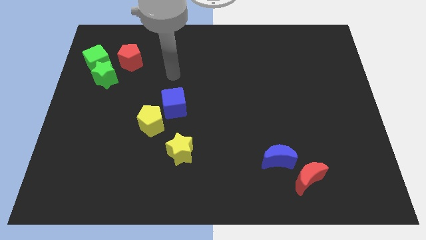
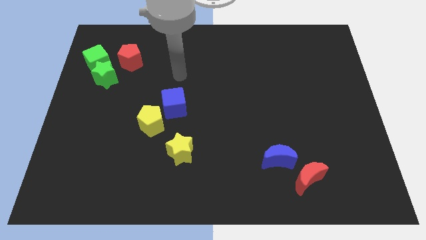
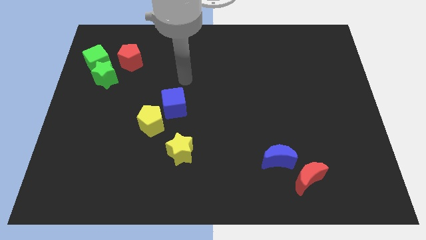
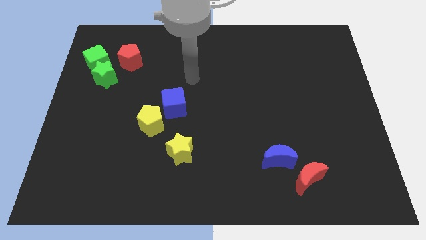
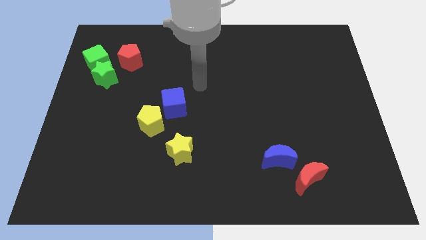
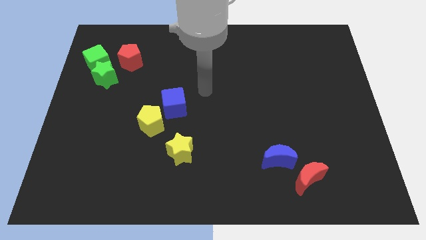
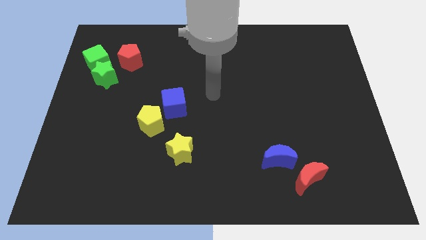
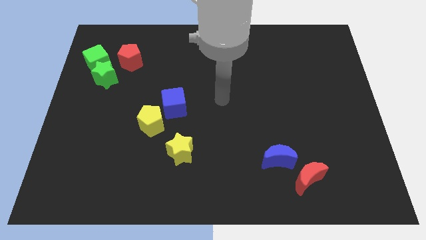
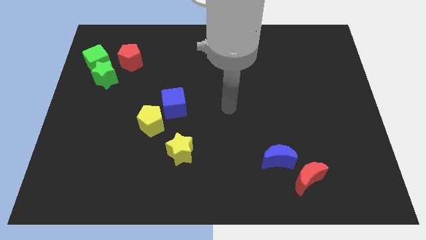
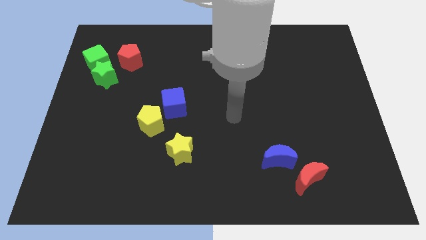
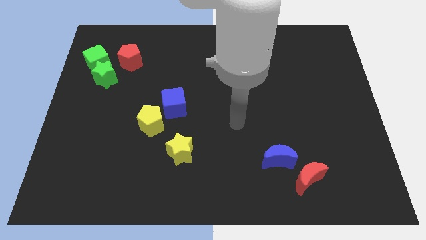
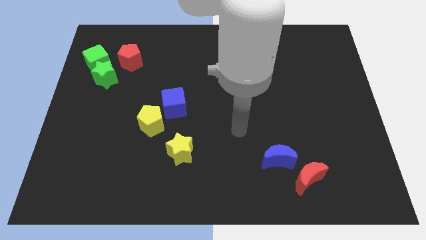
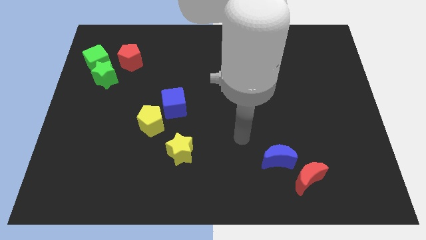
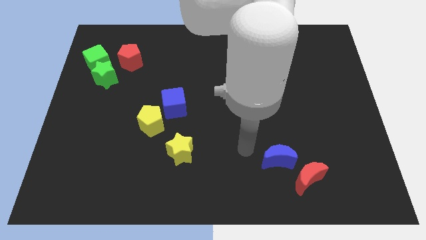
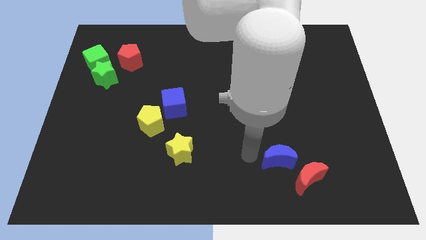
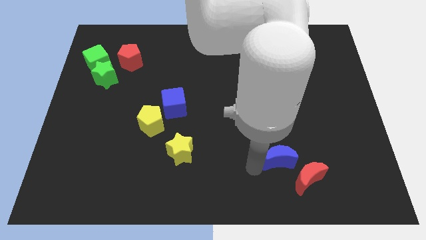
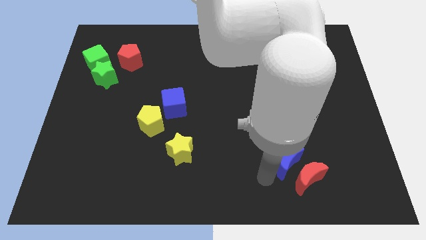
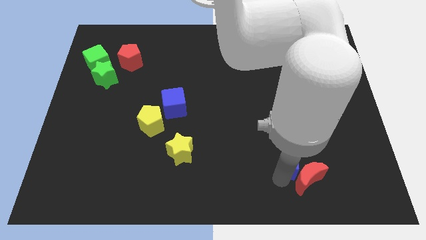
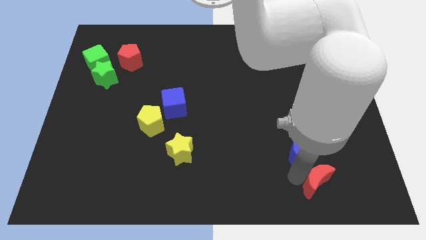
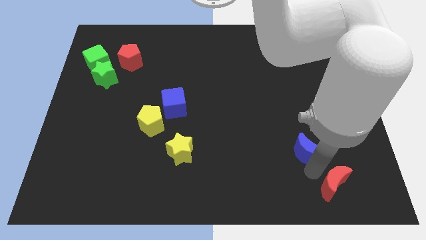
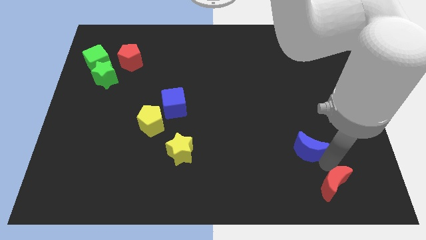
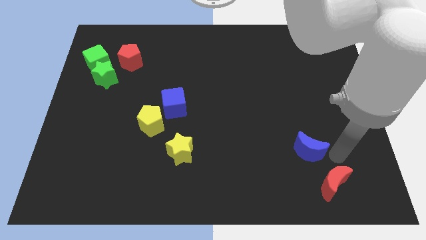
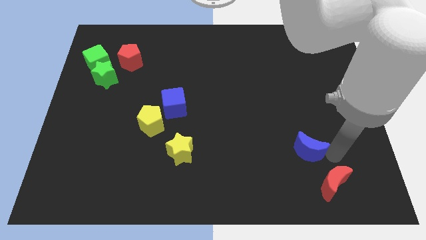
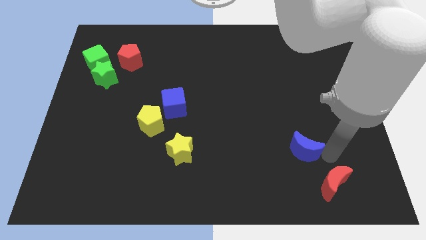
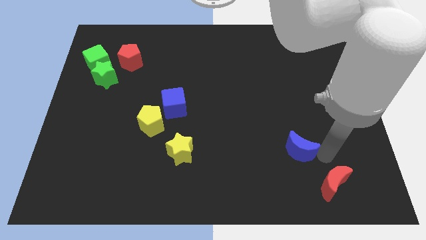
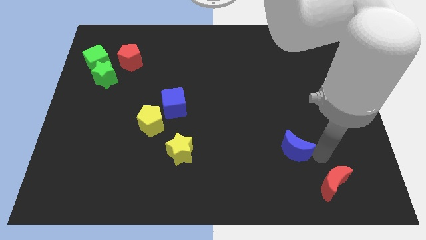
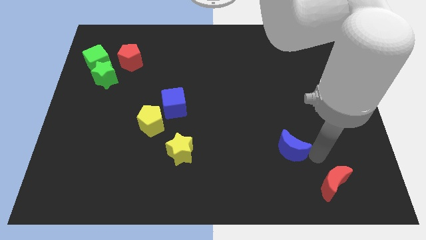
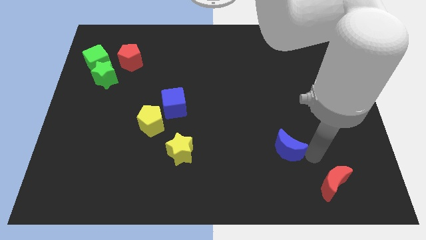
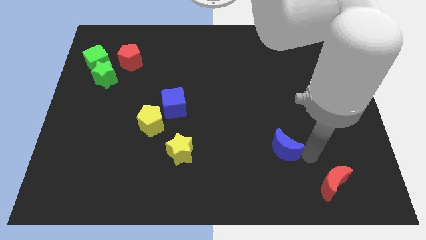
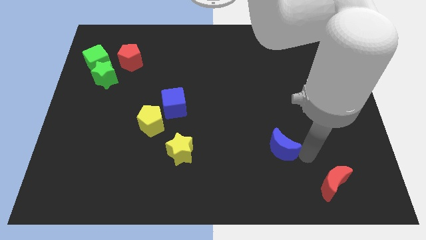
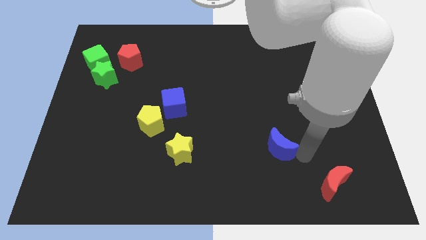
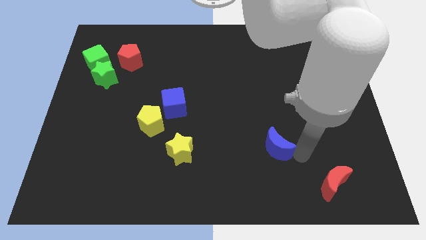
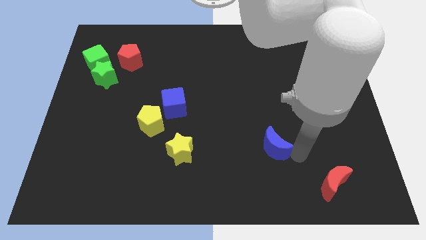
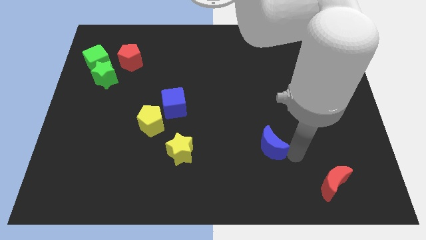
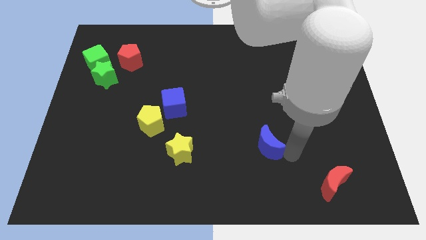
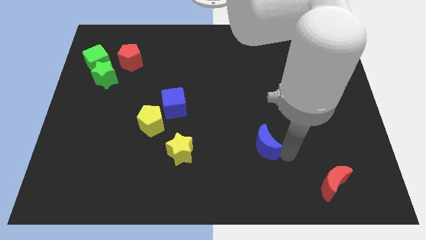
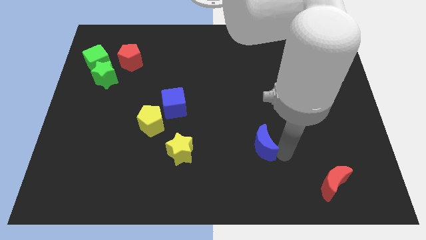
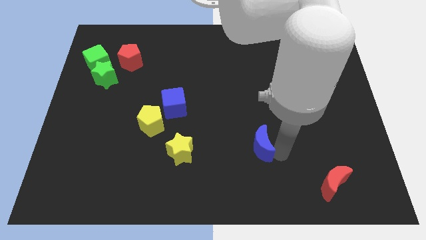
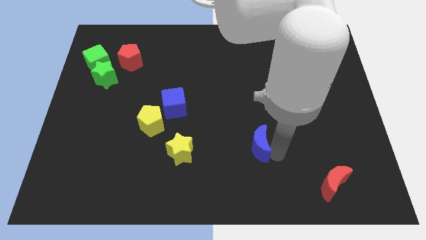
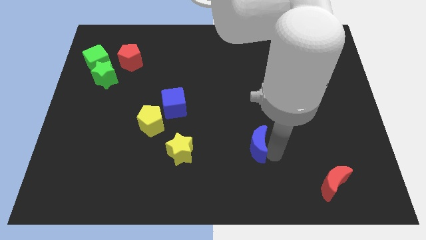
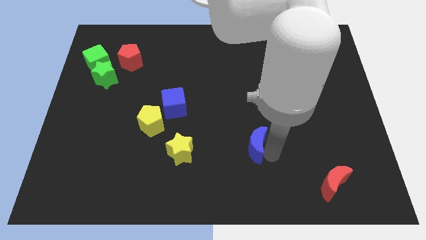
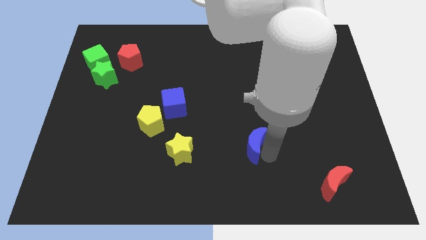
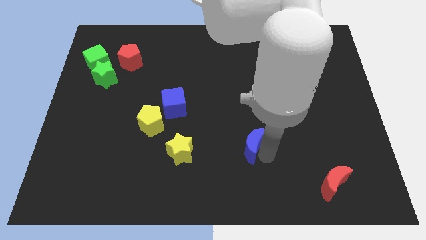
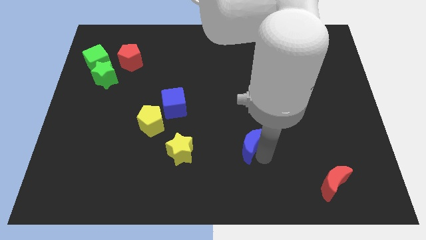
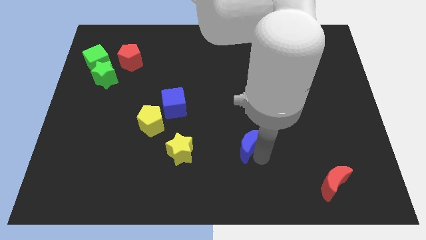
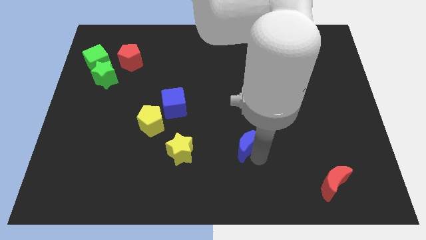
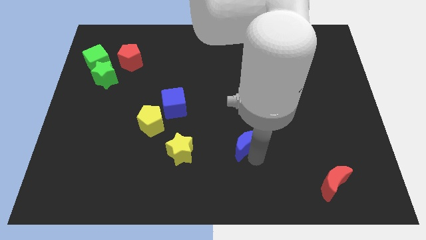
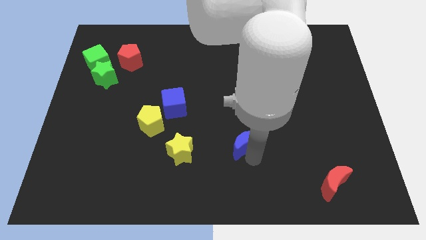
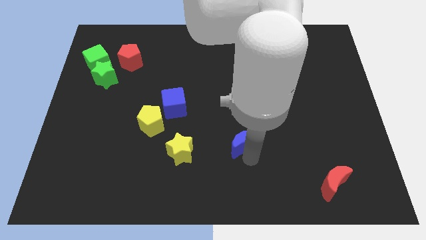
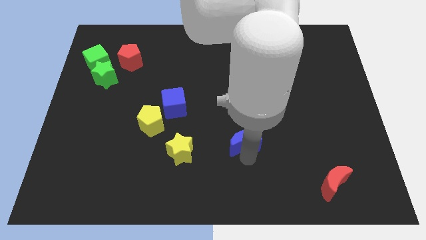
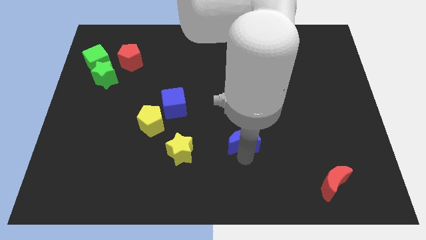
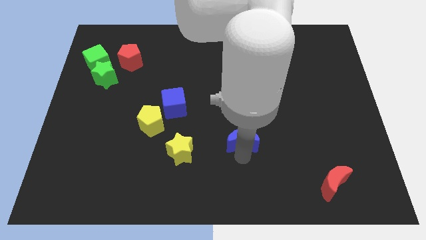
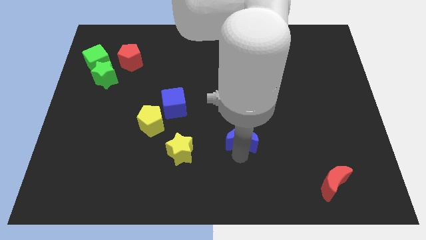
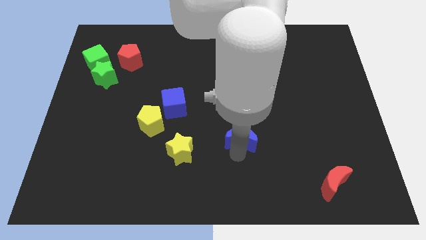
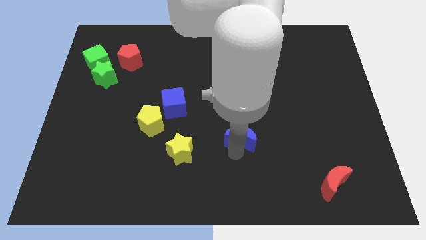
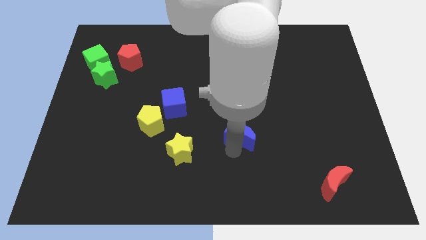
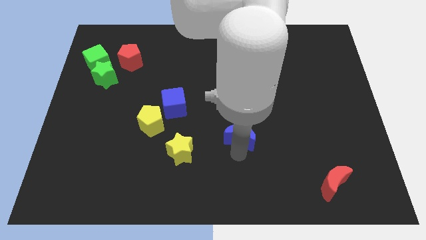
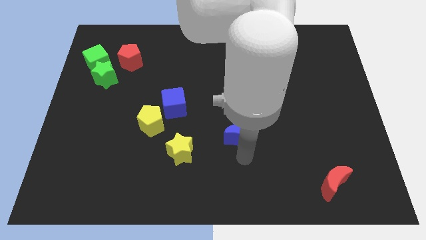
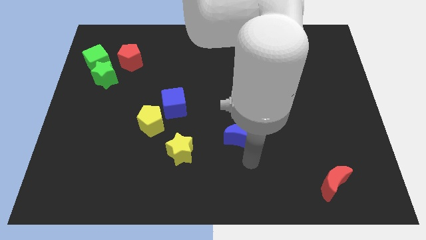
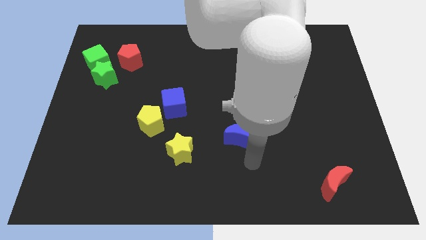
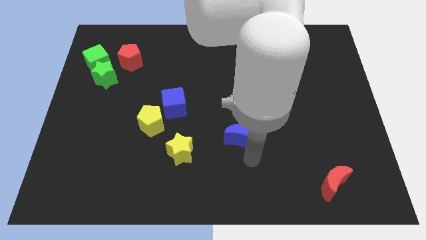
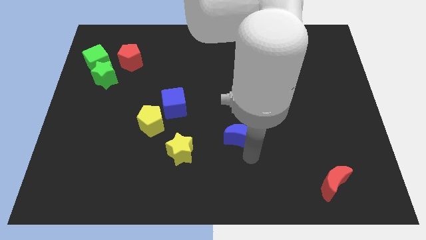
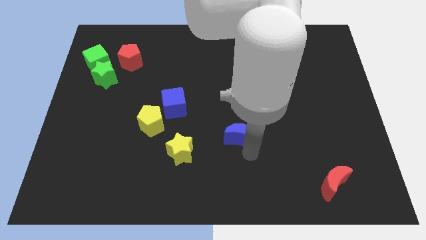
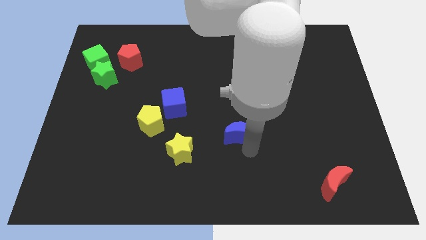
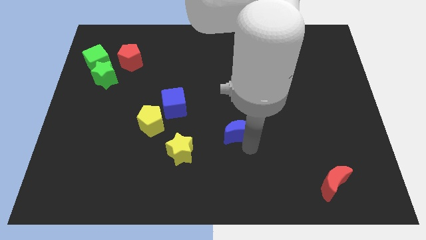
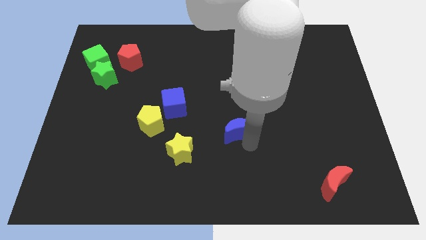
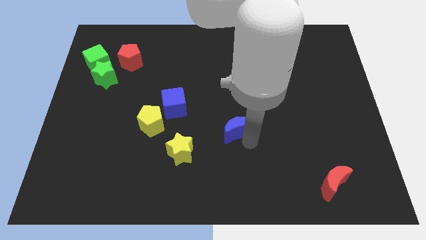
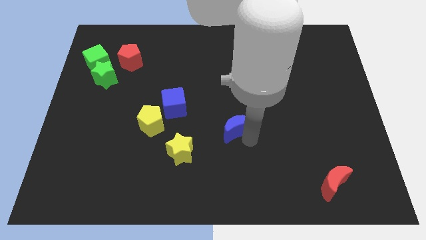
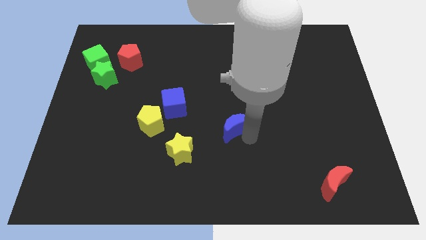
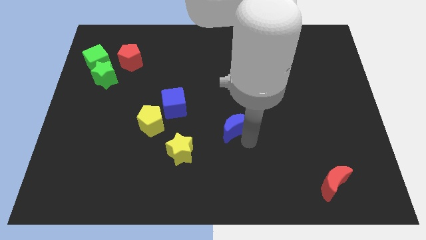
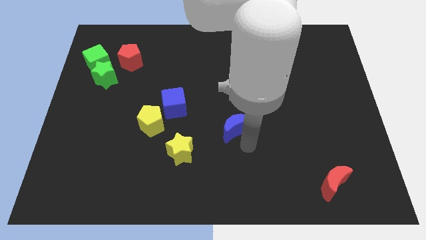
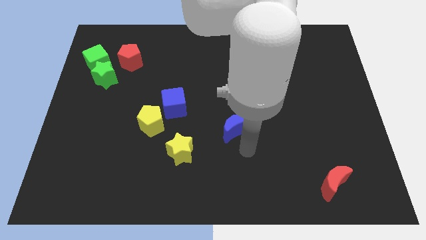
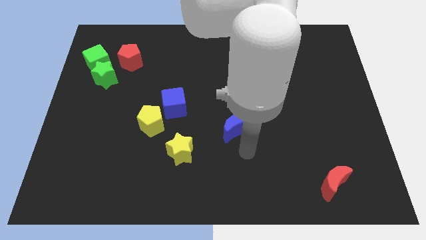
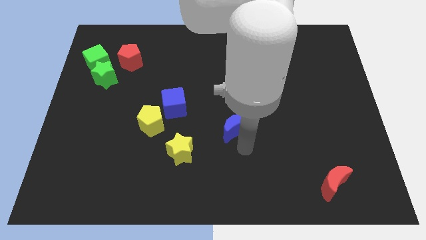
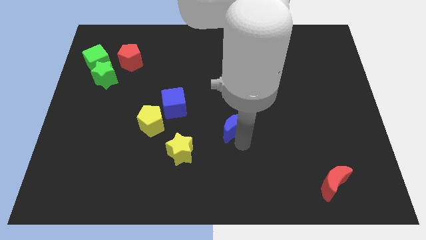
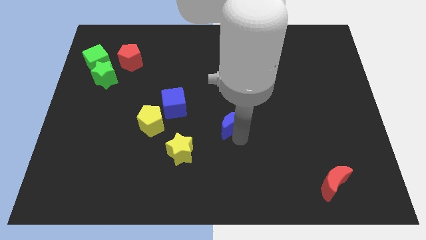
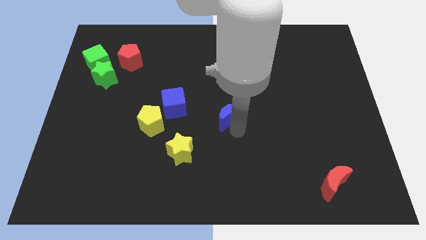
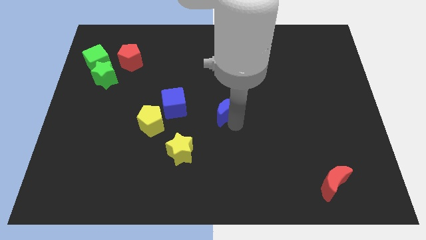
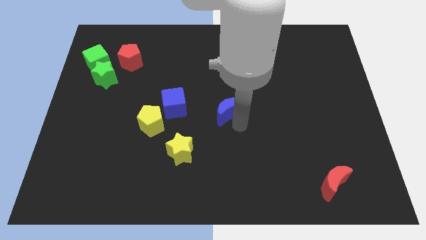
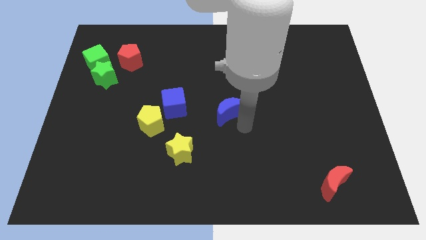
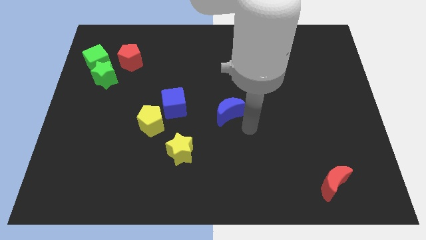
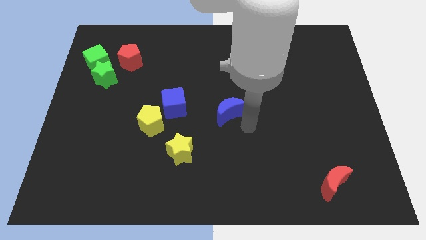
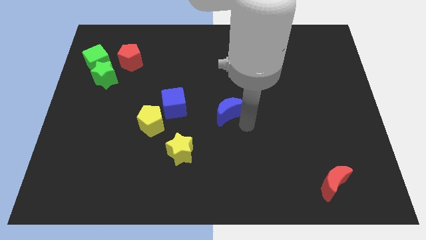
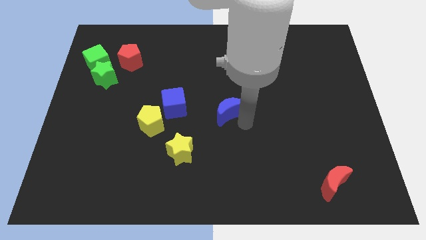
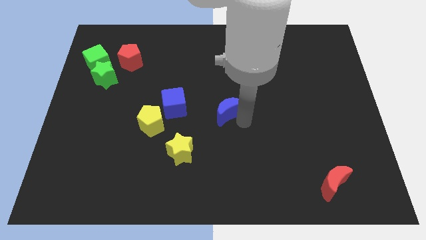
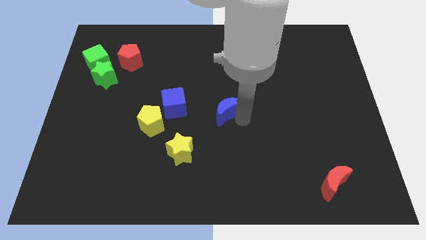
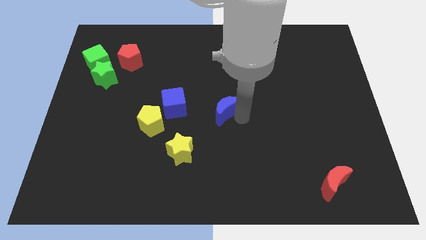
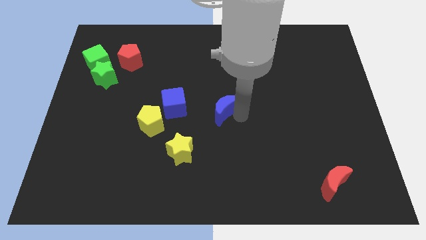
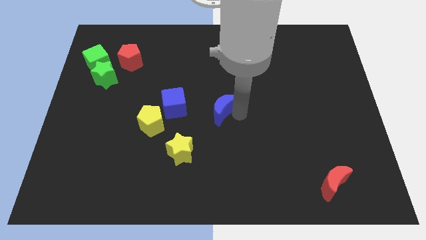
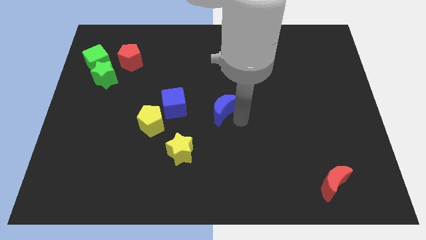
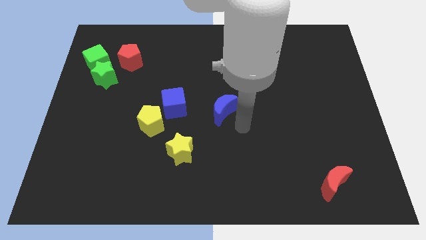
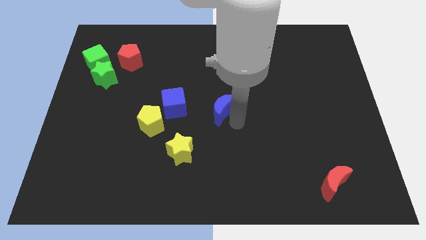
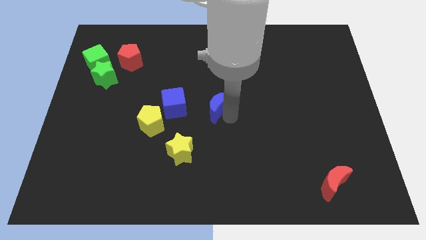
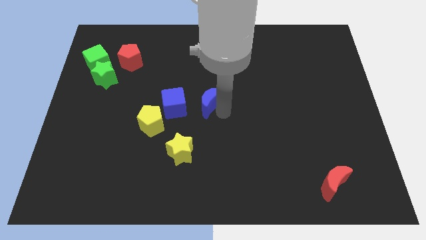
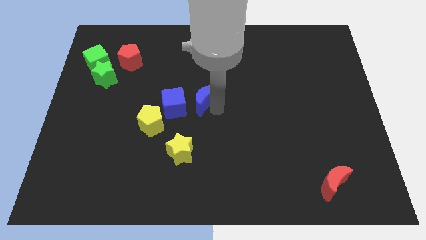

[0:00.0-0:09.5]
slide the blue moon to the top right of the blue cube
